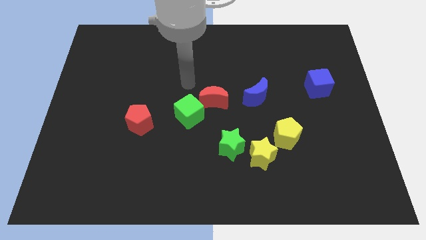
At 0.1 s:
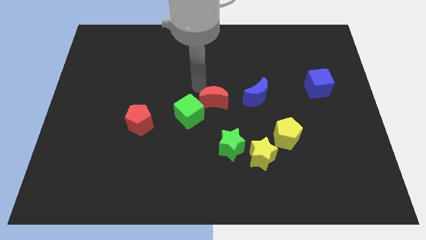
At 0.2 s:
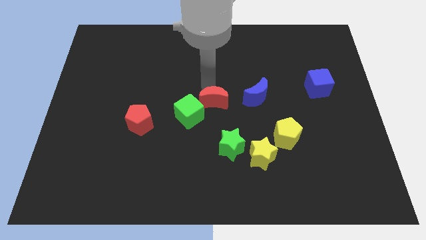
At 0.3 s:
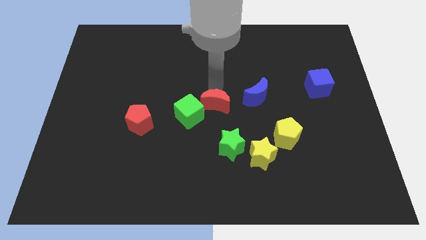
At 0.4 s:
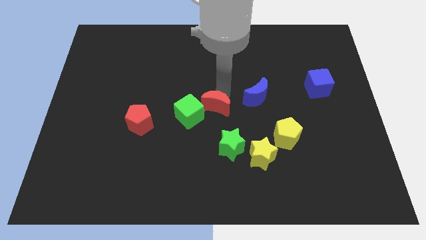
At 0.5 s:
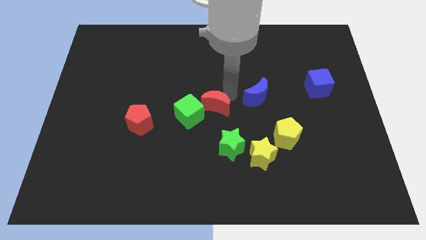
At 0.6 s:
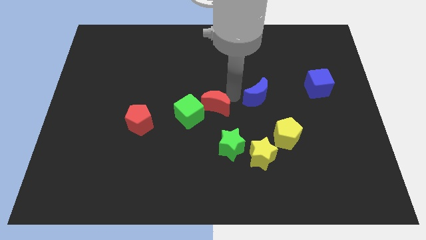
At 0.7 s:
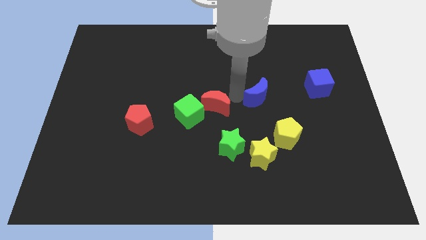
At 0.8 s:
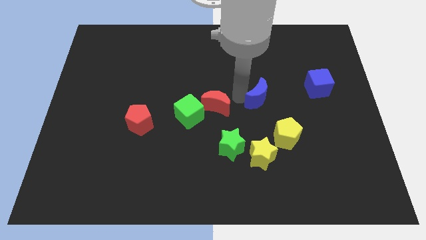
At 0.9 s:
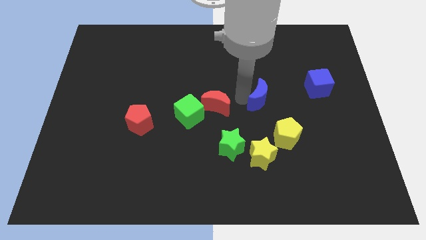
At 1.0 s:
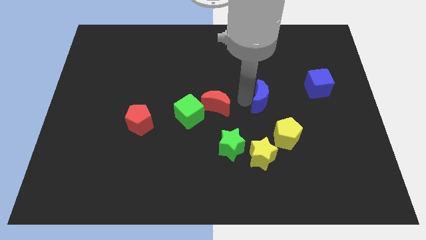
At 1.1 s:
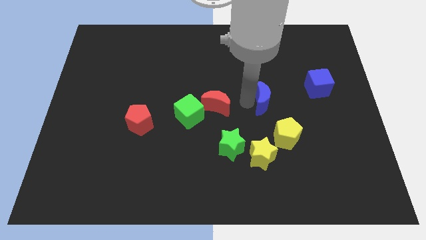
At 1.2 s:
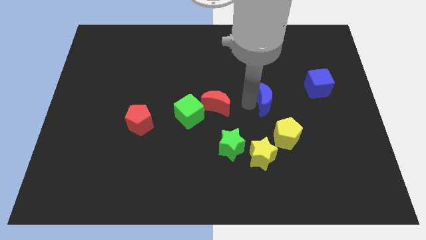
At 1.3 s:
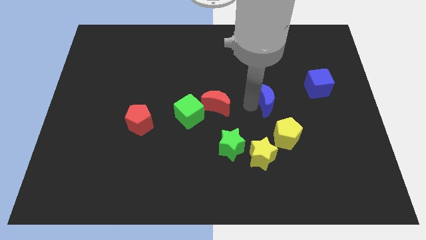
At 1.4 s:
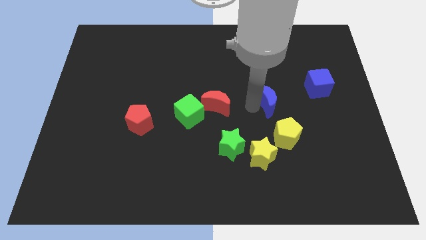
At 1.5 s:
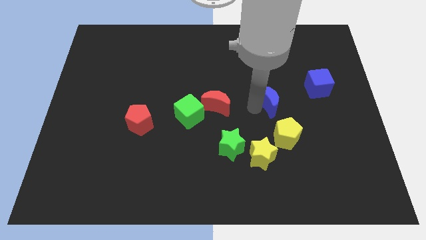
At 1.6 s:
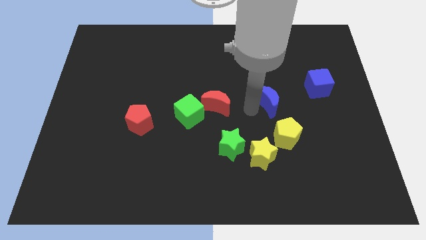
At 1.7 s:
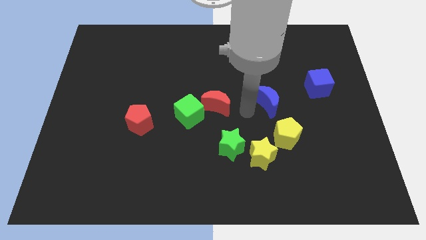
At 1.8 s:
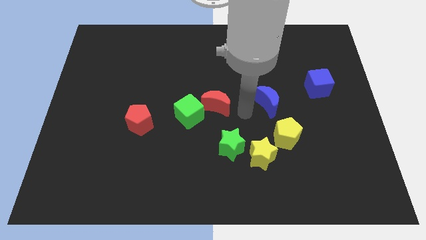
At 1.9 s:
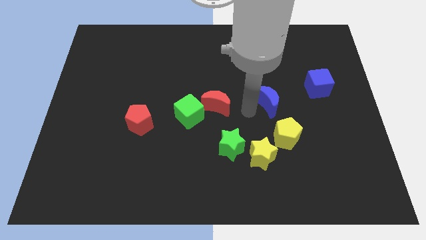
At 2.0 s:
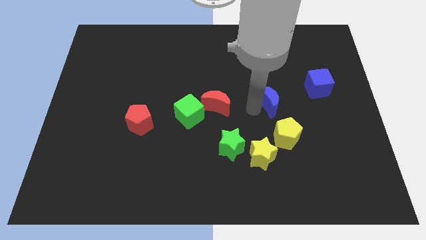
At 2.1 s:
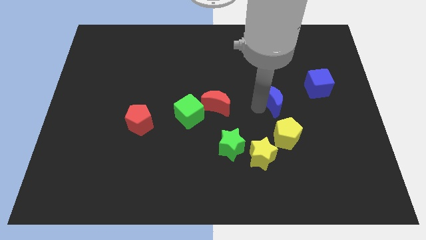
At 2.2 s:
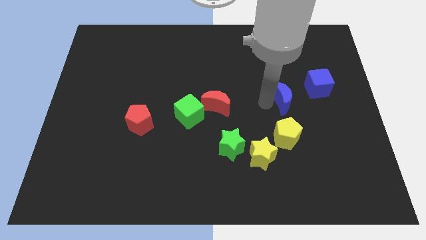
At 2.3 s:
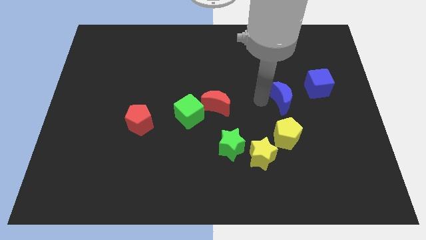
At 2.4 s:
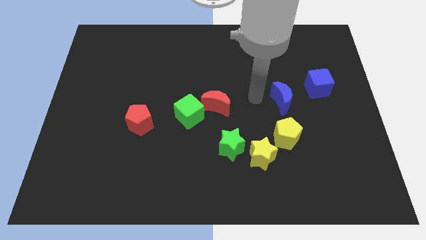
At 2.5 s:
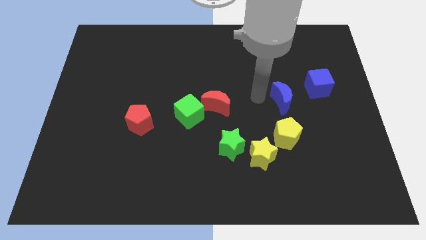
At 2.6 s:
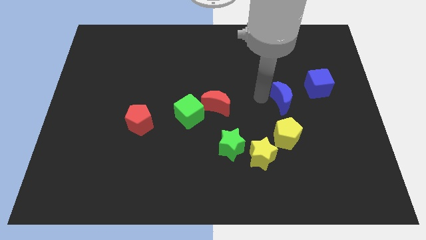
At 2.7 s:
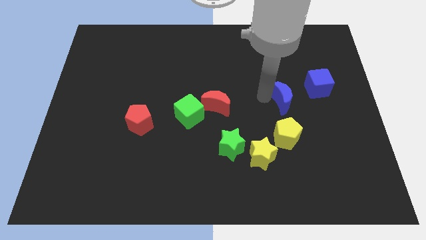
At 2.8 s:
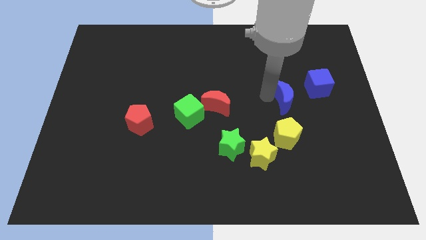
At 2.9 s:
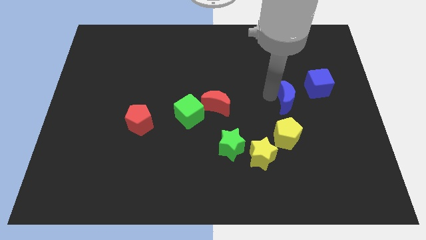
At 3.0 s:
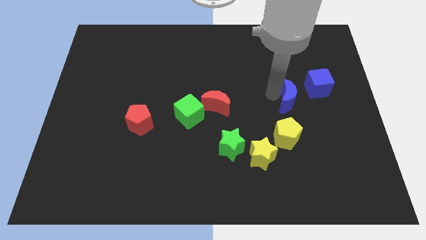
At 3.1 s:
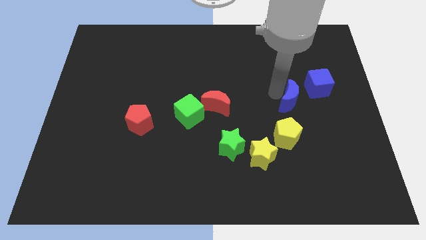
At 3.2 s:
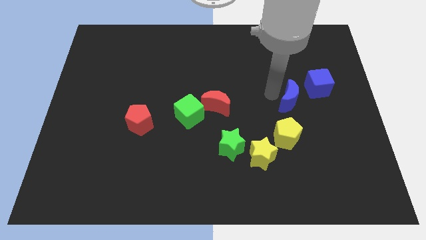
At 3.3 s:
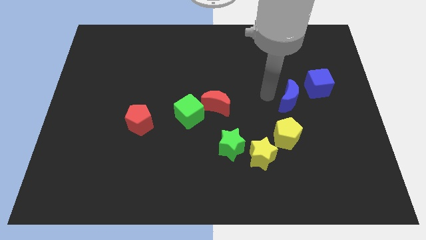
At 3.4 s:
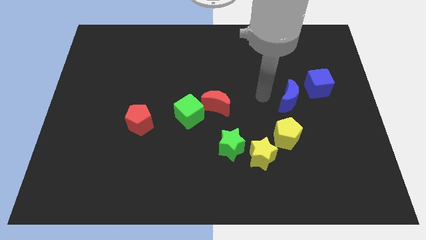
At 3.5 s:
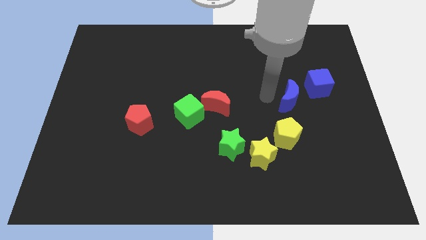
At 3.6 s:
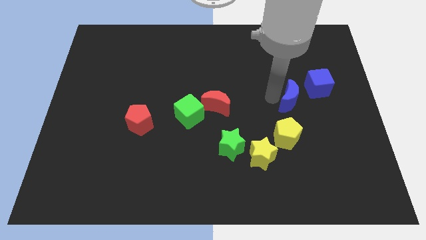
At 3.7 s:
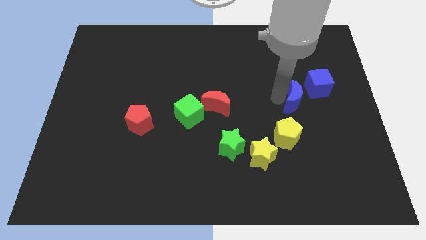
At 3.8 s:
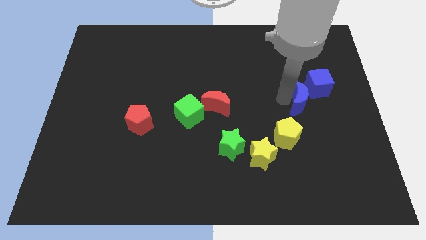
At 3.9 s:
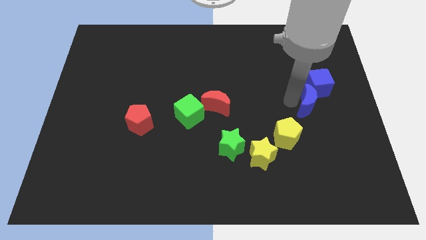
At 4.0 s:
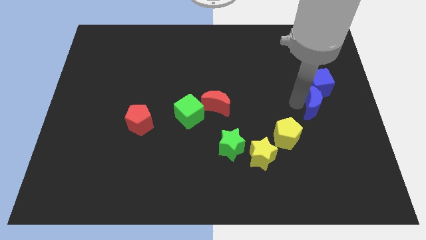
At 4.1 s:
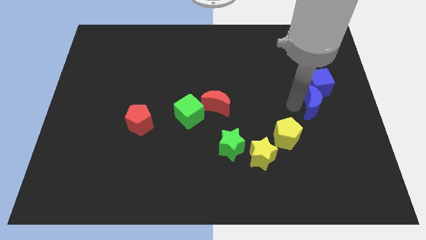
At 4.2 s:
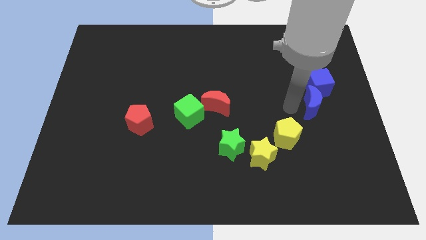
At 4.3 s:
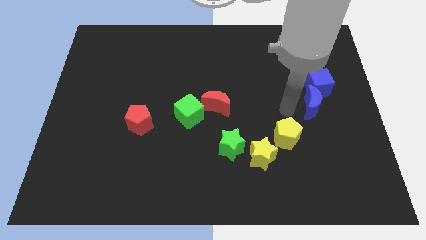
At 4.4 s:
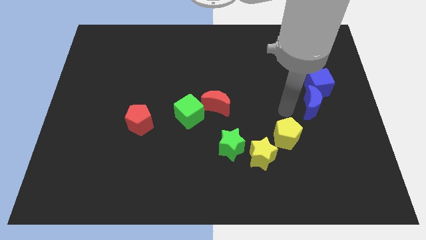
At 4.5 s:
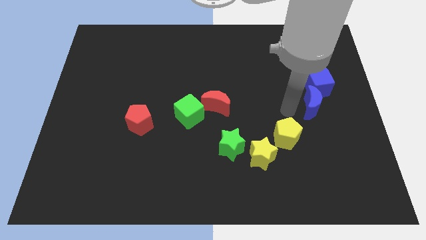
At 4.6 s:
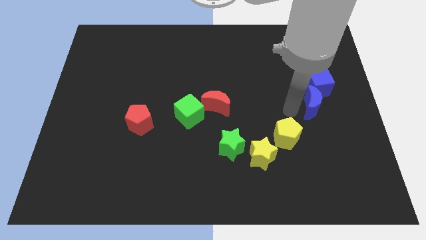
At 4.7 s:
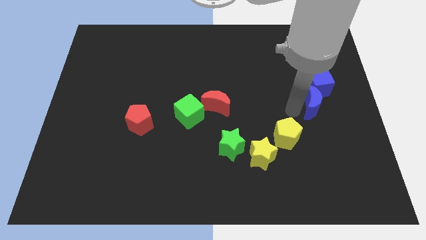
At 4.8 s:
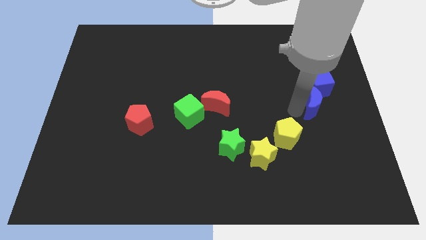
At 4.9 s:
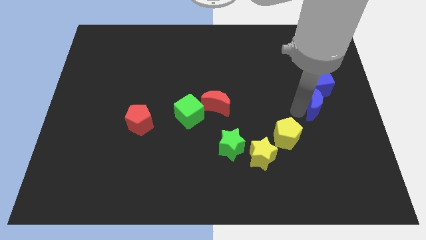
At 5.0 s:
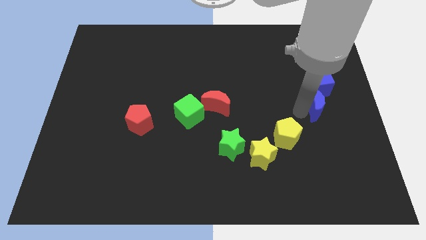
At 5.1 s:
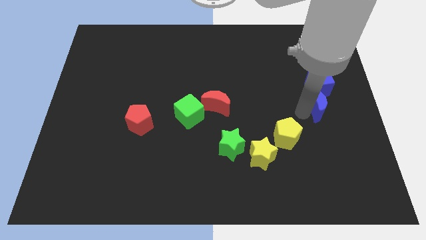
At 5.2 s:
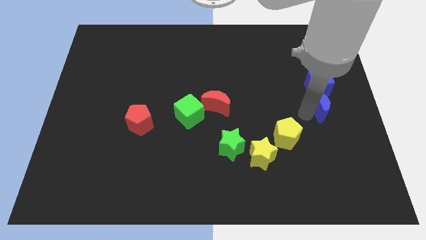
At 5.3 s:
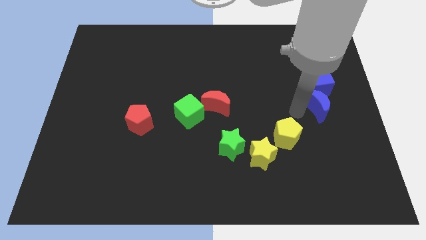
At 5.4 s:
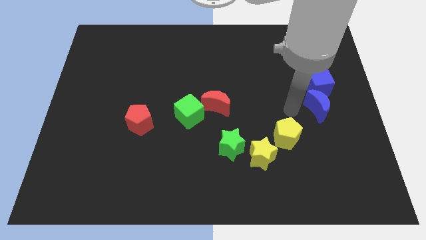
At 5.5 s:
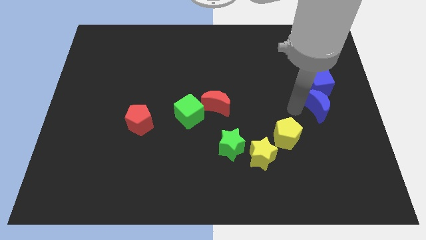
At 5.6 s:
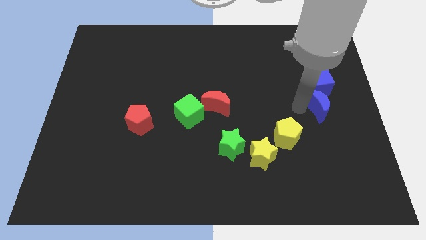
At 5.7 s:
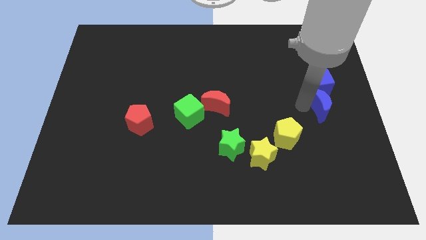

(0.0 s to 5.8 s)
slide the blue moon to the right side

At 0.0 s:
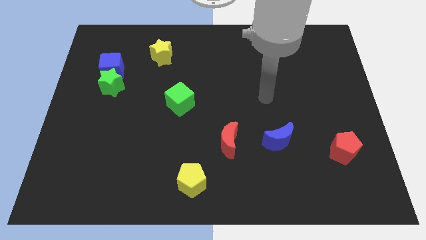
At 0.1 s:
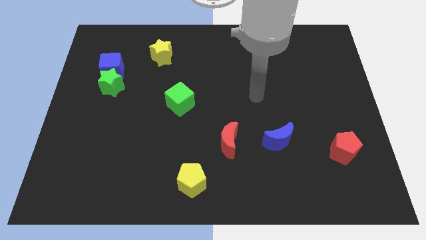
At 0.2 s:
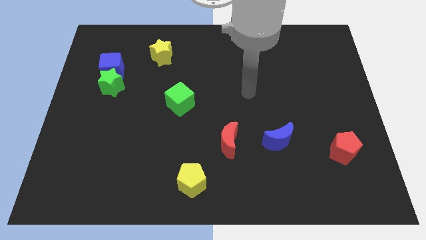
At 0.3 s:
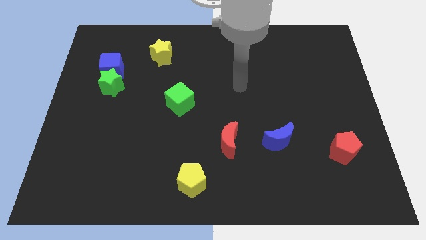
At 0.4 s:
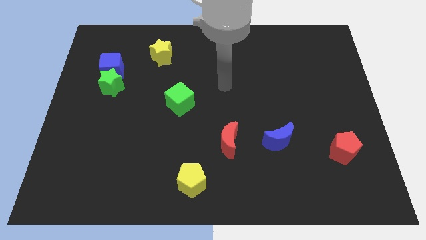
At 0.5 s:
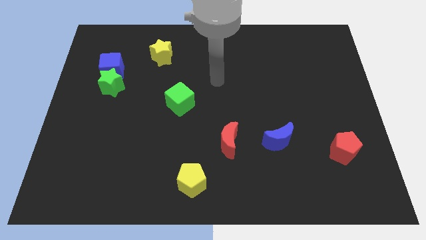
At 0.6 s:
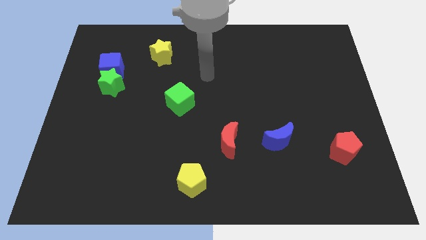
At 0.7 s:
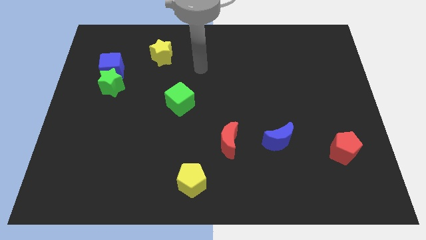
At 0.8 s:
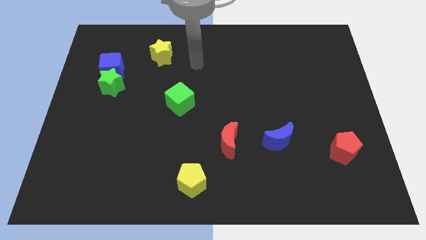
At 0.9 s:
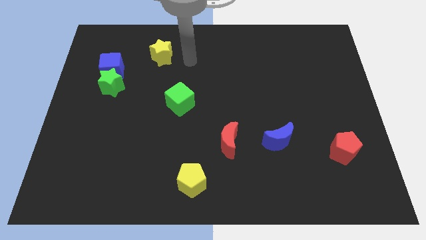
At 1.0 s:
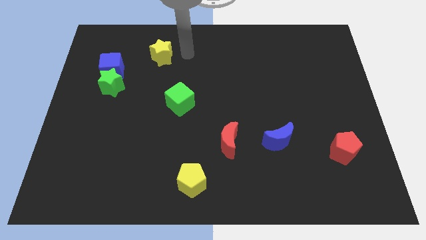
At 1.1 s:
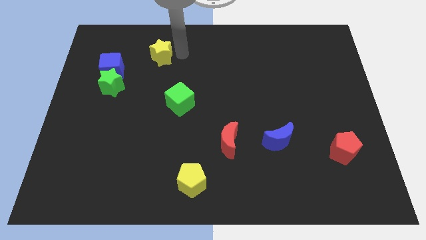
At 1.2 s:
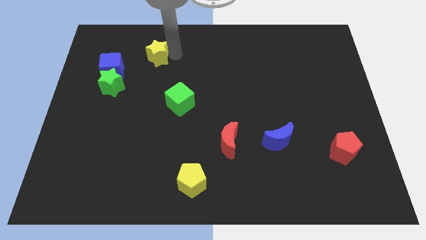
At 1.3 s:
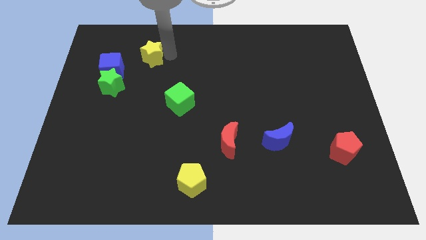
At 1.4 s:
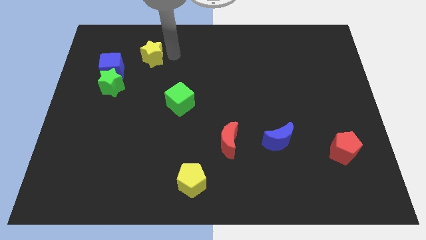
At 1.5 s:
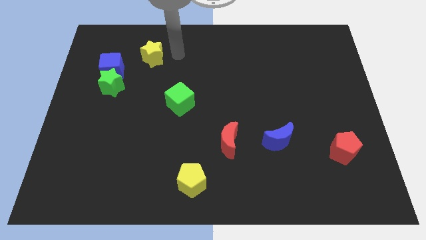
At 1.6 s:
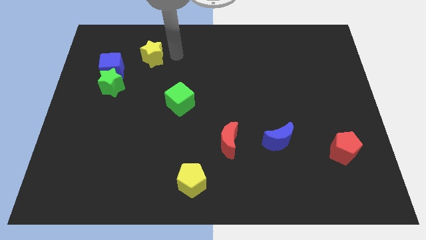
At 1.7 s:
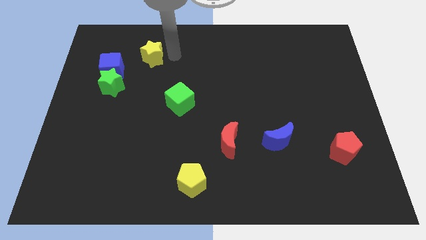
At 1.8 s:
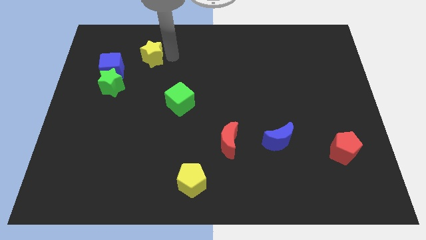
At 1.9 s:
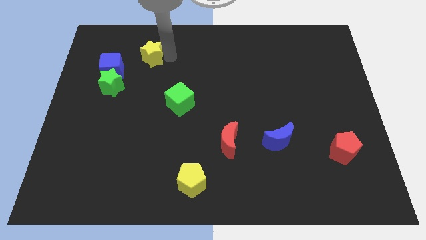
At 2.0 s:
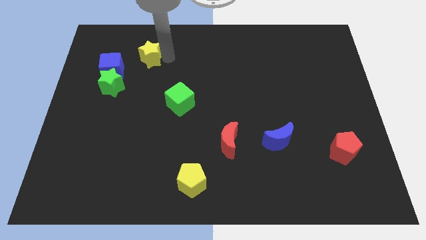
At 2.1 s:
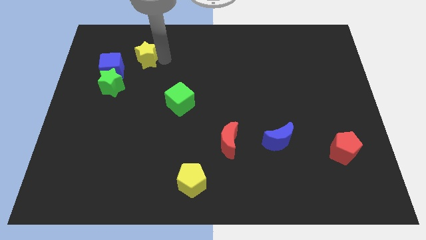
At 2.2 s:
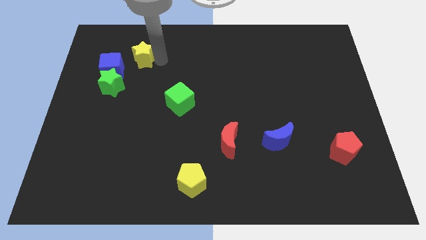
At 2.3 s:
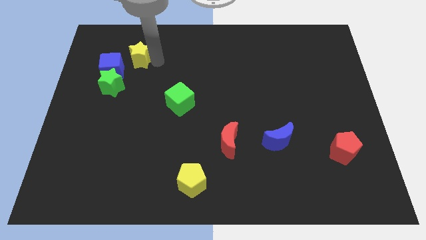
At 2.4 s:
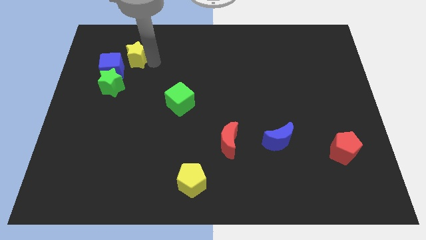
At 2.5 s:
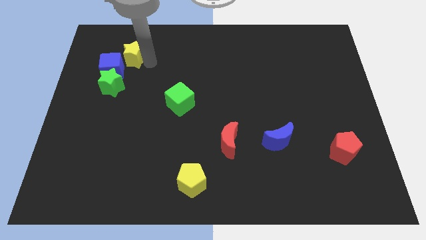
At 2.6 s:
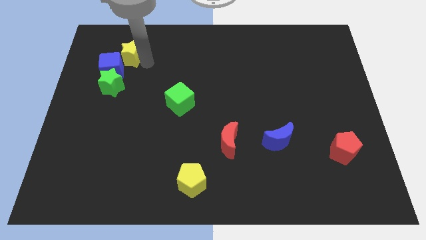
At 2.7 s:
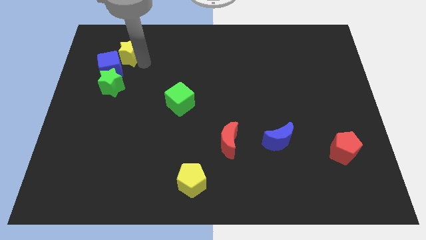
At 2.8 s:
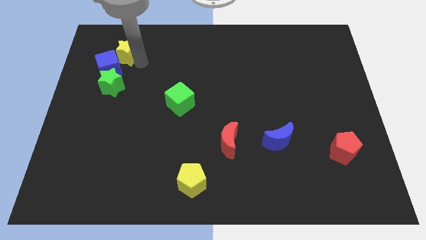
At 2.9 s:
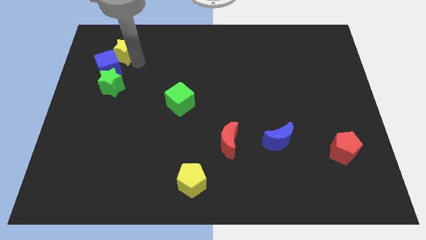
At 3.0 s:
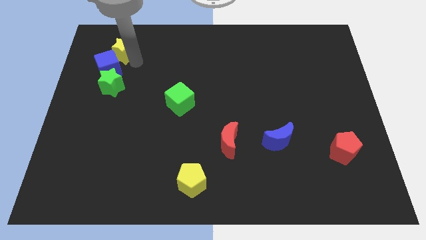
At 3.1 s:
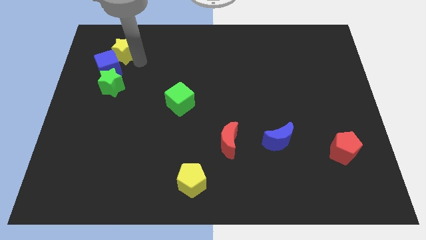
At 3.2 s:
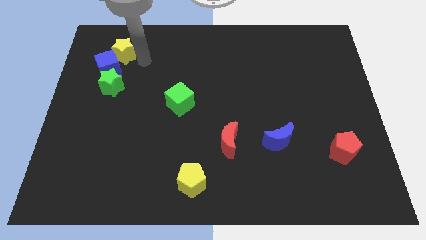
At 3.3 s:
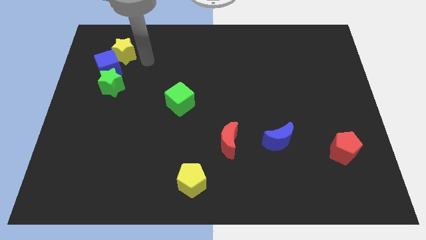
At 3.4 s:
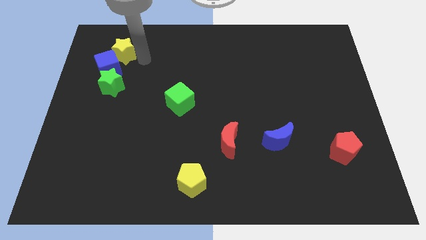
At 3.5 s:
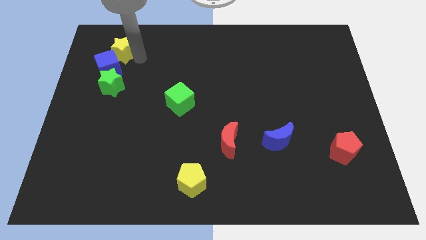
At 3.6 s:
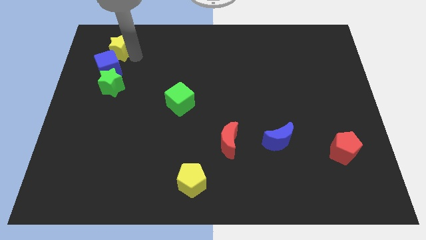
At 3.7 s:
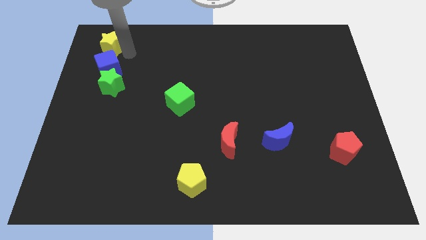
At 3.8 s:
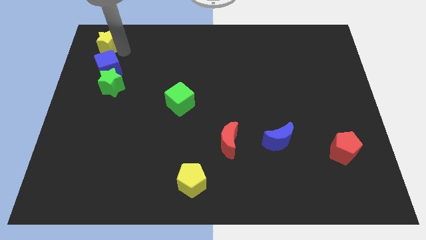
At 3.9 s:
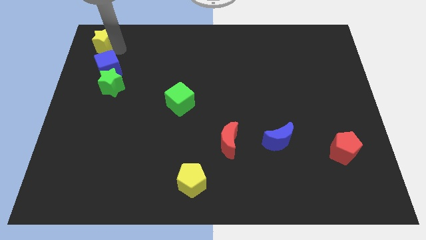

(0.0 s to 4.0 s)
put the yellow star to the top left
